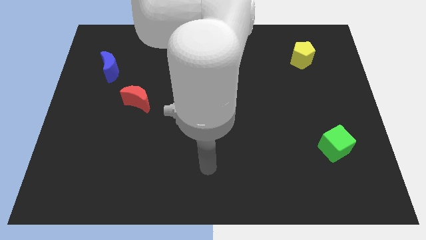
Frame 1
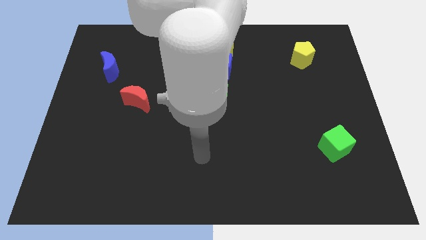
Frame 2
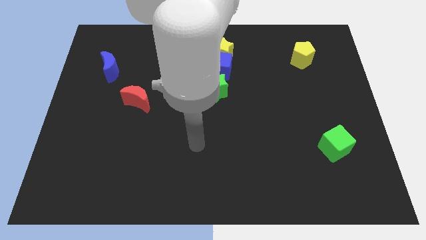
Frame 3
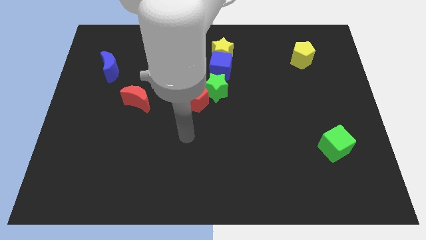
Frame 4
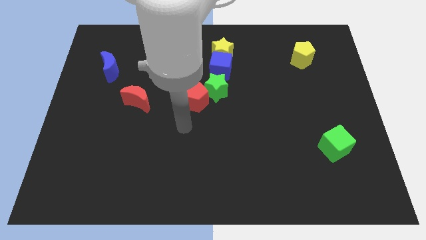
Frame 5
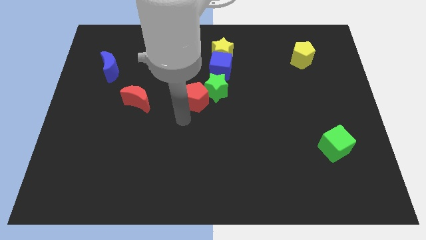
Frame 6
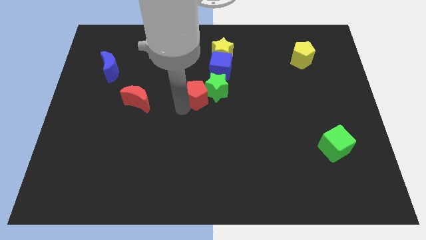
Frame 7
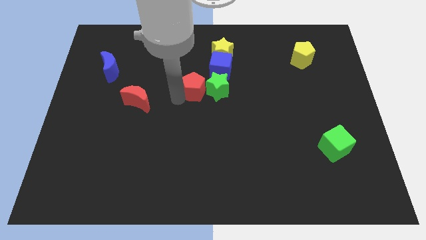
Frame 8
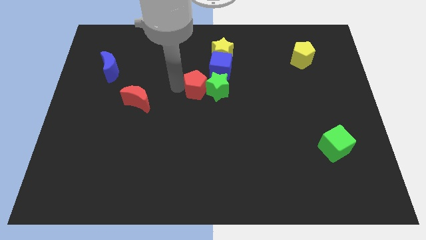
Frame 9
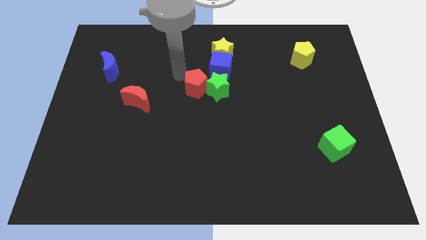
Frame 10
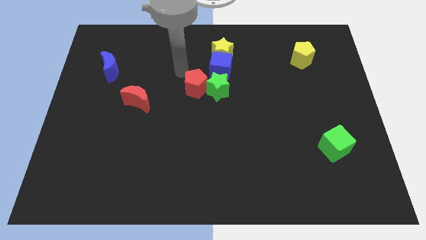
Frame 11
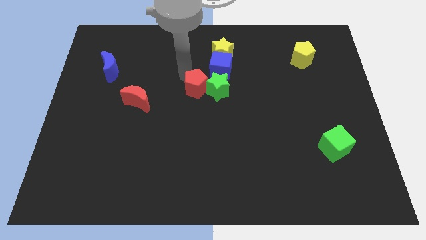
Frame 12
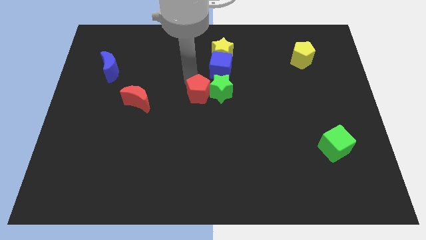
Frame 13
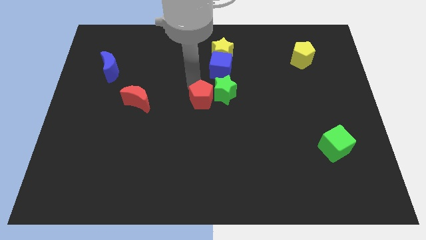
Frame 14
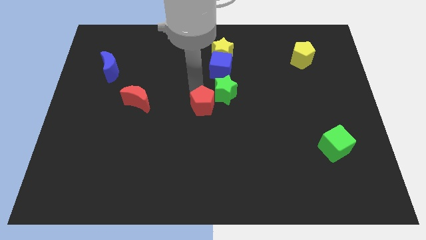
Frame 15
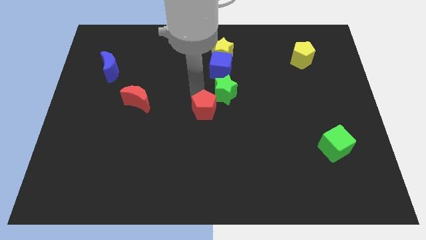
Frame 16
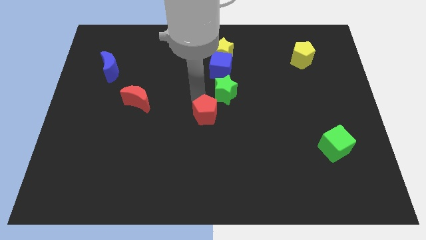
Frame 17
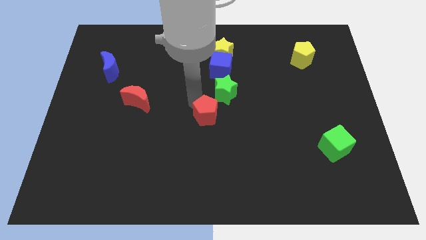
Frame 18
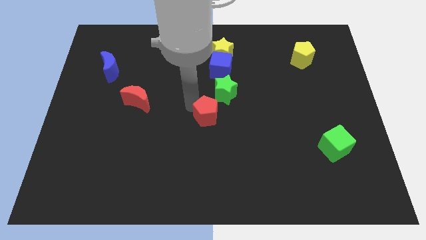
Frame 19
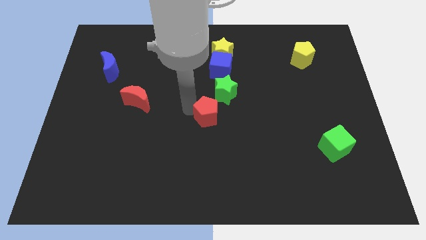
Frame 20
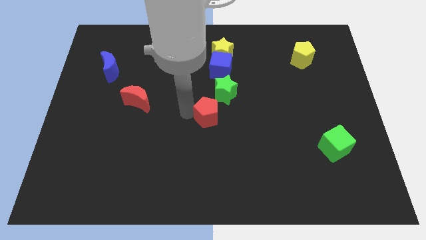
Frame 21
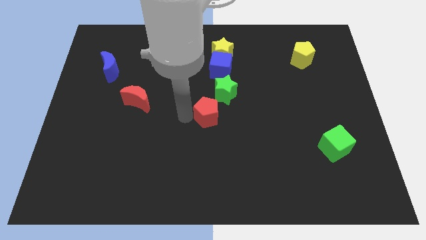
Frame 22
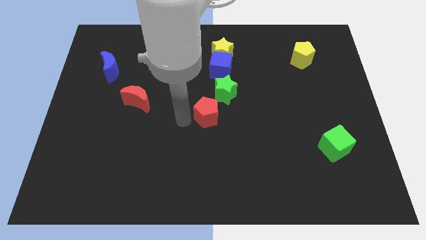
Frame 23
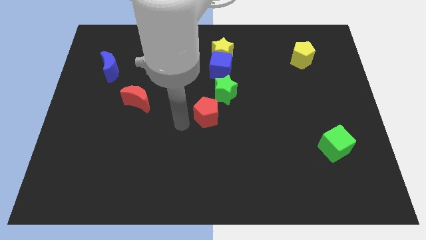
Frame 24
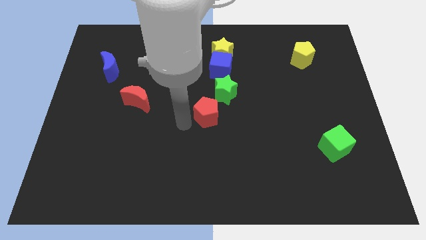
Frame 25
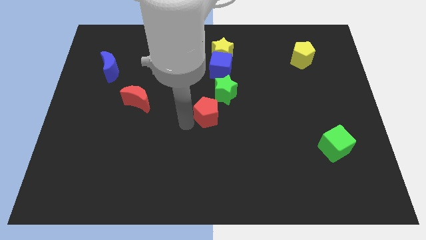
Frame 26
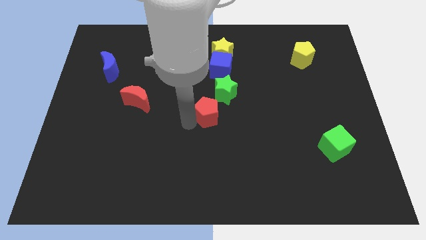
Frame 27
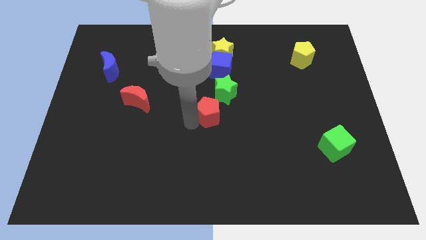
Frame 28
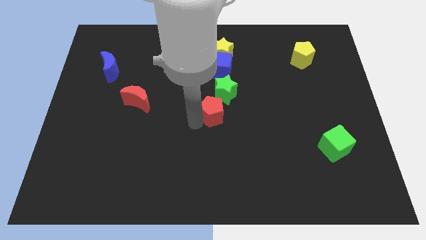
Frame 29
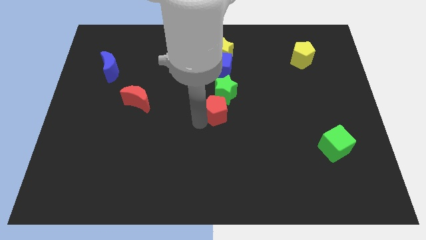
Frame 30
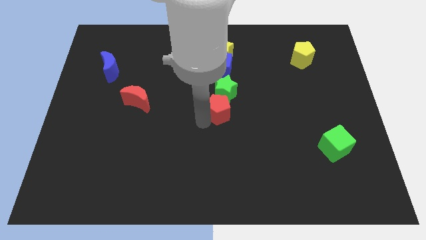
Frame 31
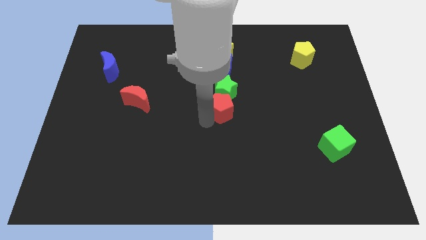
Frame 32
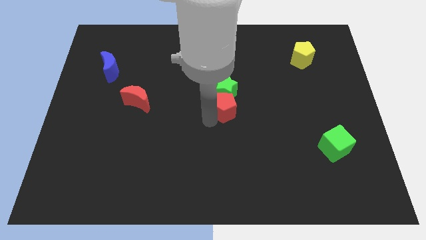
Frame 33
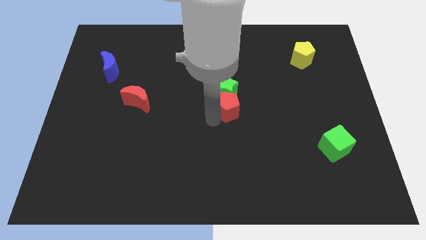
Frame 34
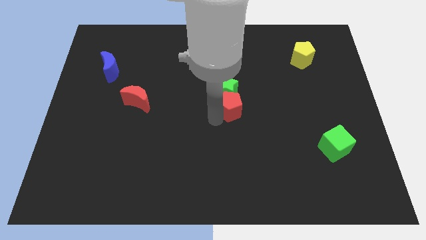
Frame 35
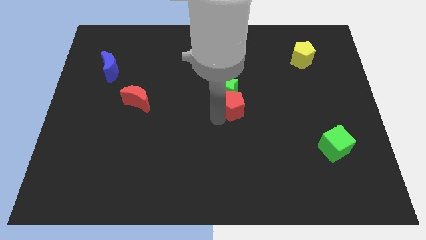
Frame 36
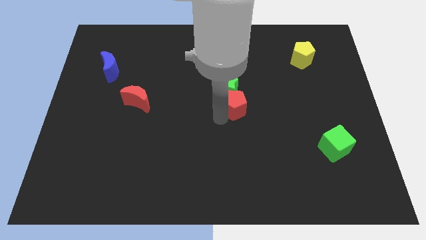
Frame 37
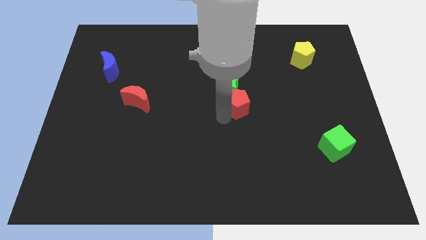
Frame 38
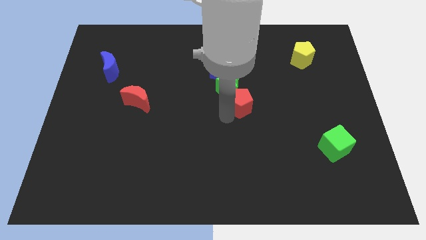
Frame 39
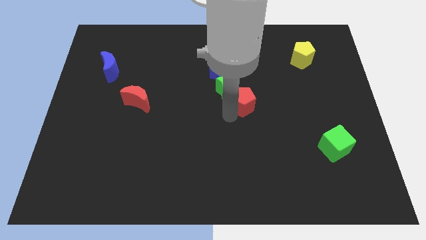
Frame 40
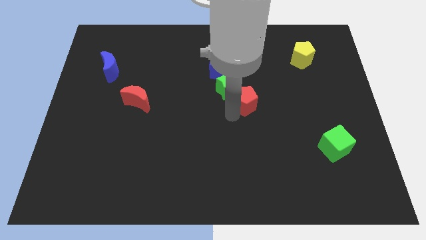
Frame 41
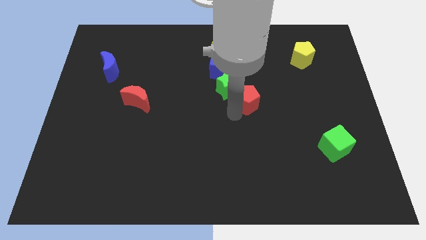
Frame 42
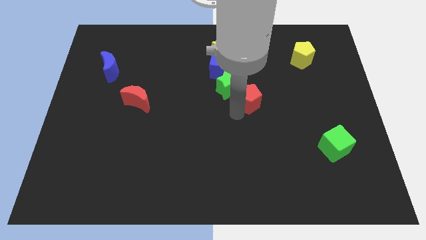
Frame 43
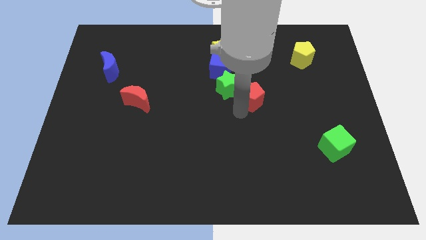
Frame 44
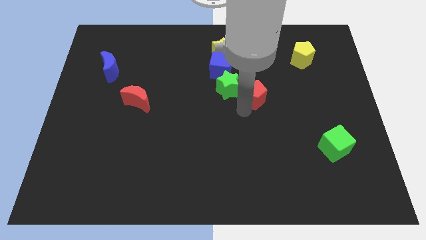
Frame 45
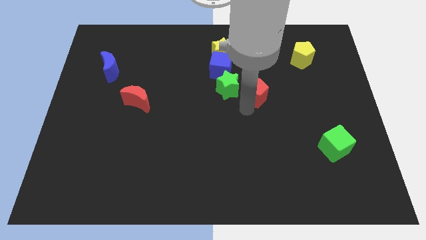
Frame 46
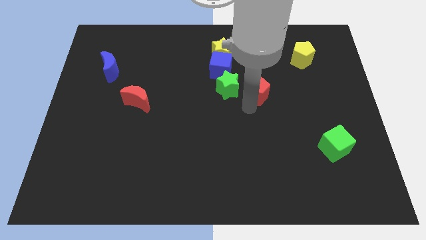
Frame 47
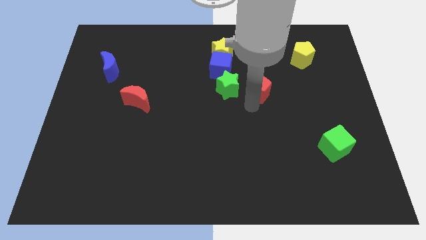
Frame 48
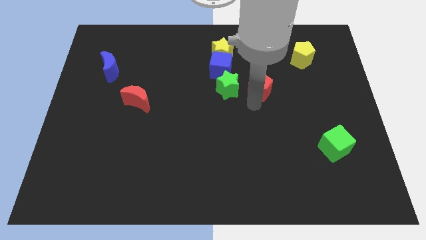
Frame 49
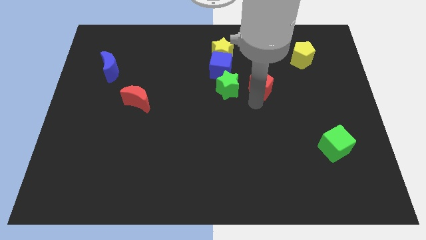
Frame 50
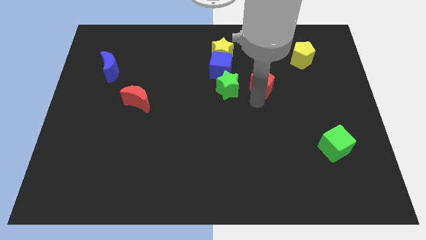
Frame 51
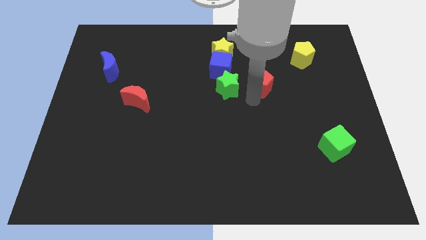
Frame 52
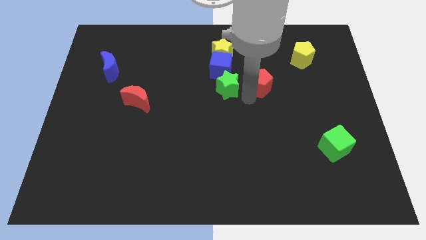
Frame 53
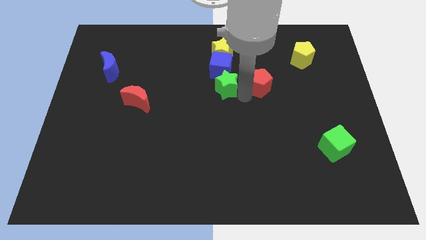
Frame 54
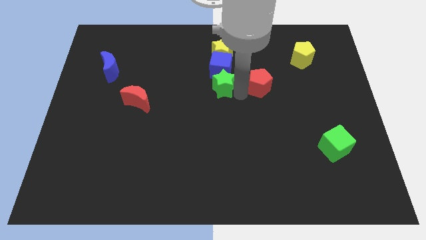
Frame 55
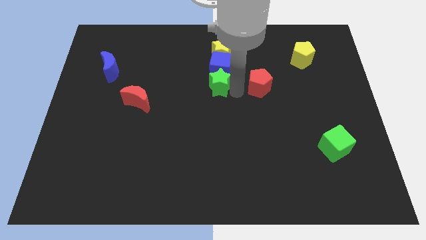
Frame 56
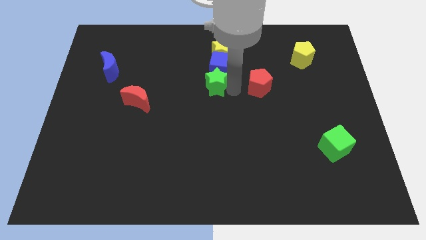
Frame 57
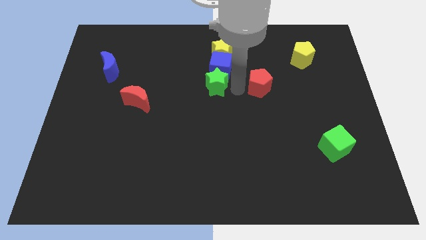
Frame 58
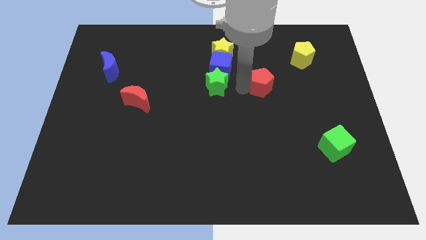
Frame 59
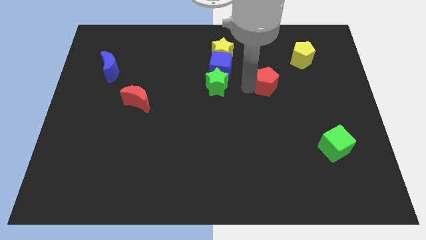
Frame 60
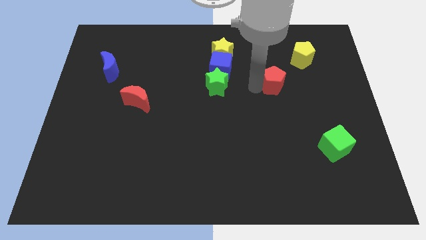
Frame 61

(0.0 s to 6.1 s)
slide the red pentagon to the bottom left side of the yellow pentagon

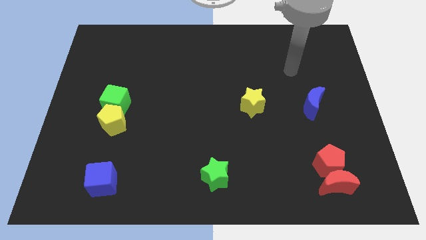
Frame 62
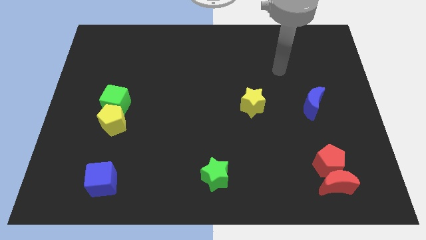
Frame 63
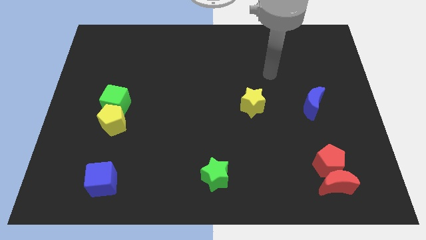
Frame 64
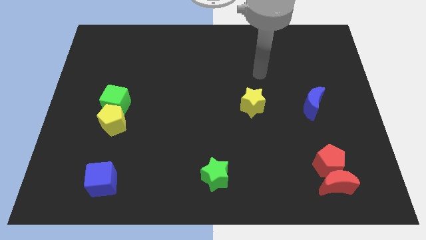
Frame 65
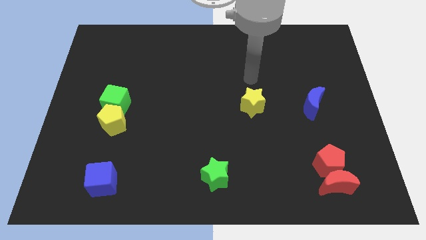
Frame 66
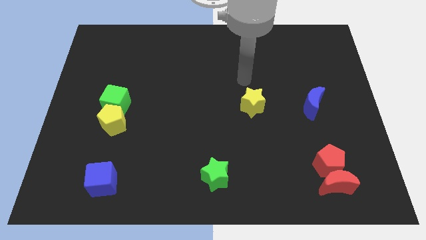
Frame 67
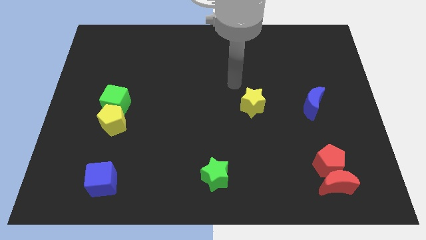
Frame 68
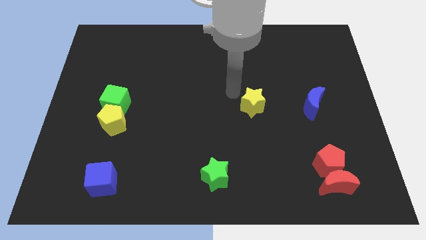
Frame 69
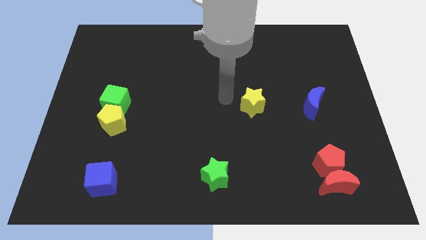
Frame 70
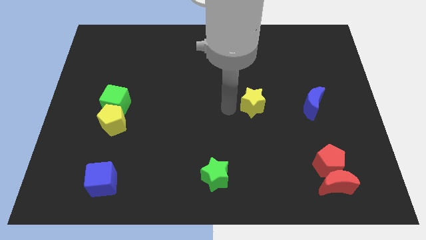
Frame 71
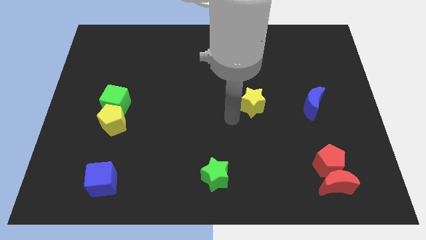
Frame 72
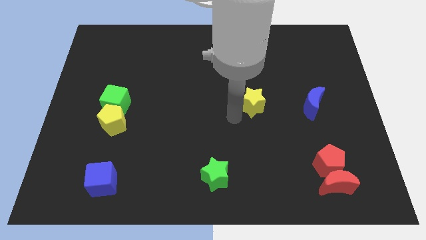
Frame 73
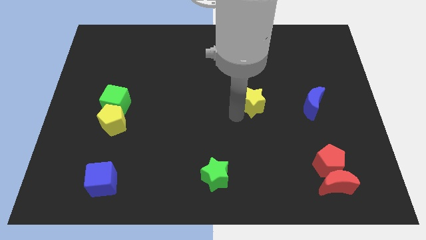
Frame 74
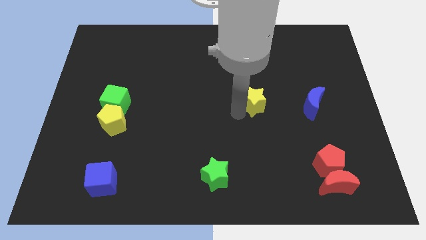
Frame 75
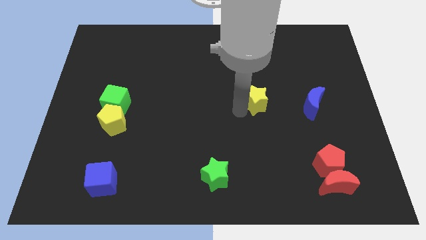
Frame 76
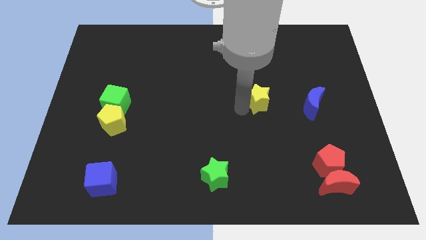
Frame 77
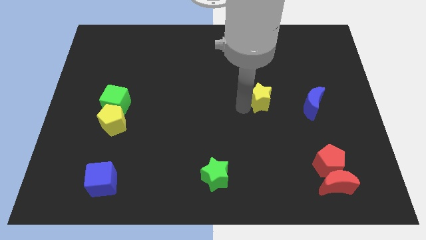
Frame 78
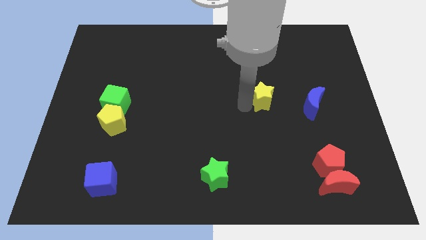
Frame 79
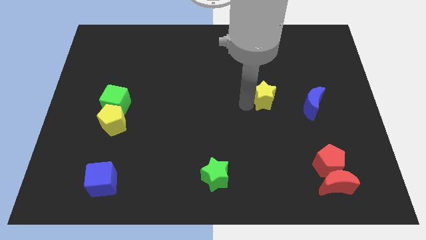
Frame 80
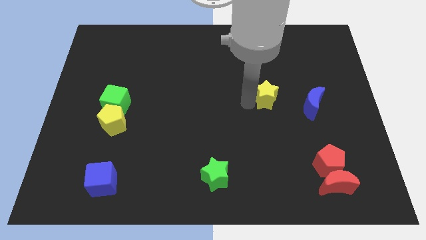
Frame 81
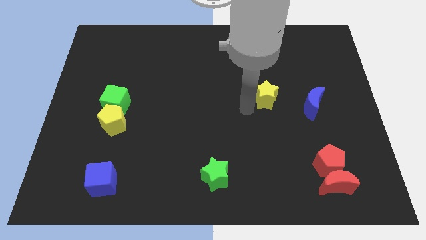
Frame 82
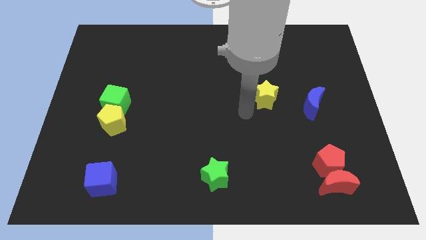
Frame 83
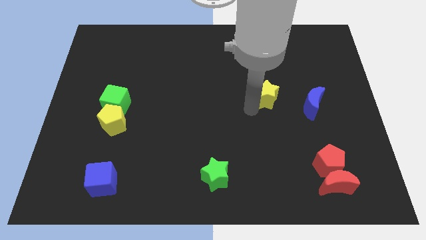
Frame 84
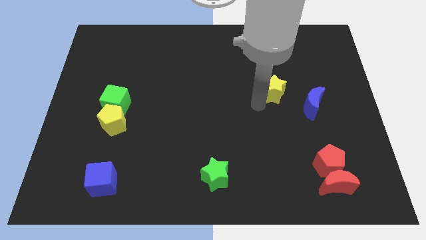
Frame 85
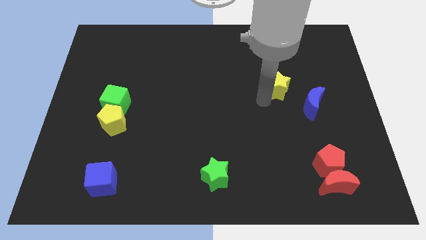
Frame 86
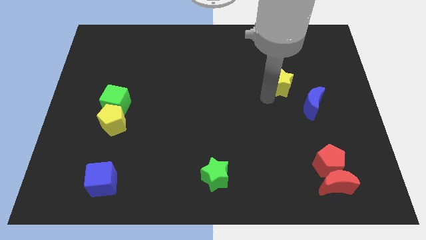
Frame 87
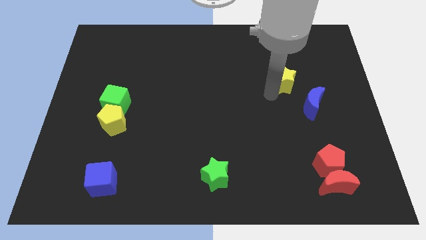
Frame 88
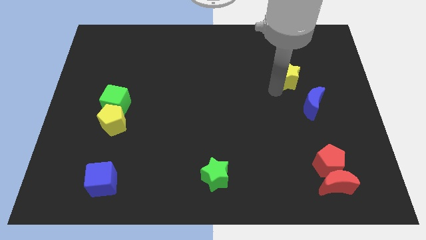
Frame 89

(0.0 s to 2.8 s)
slide the yellow star to the top of the blue moon
